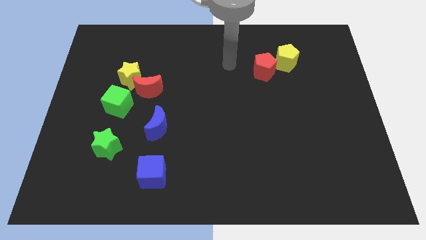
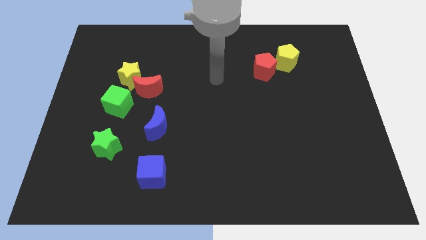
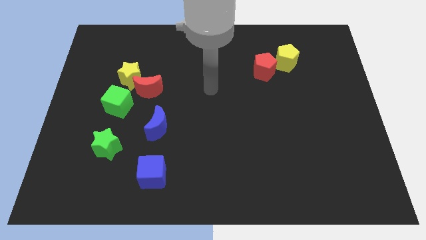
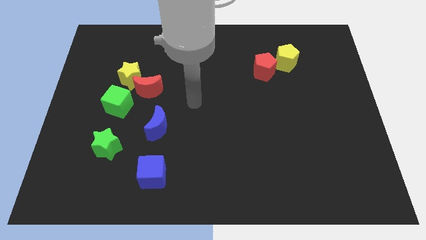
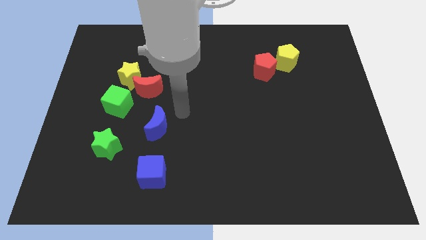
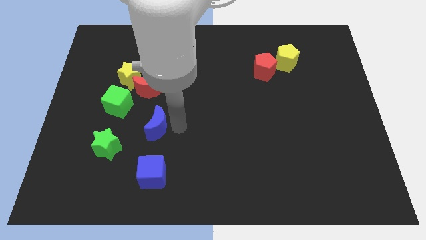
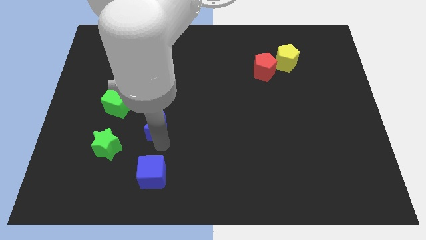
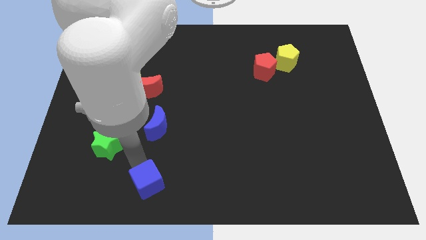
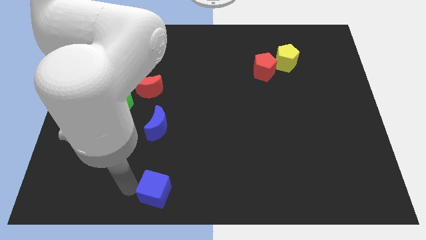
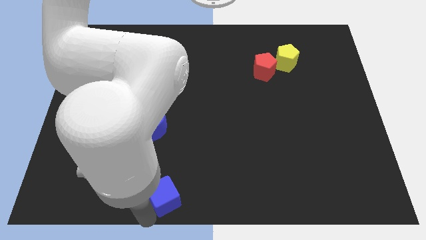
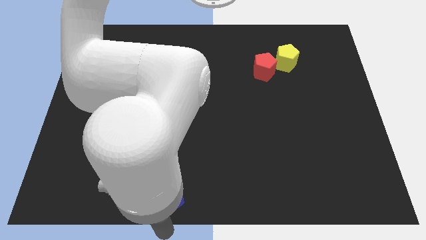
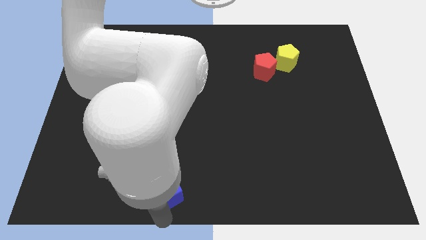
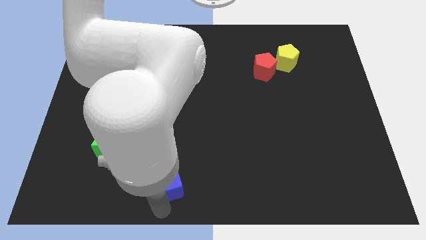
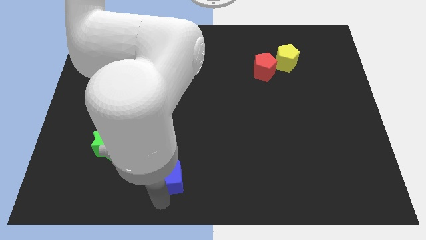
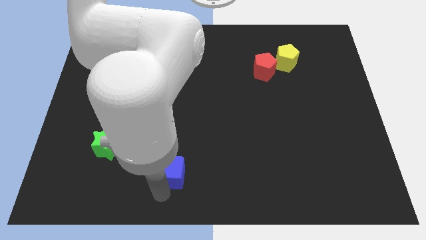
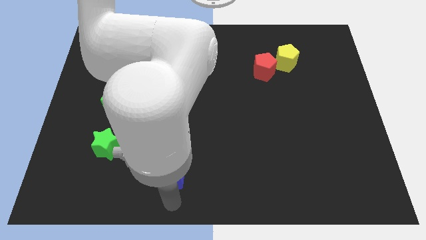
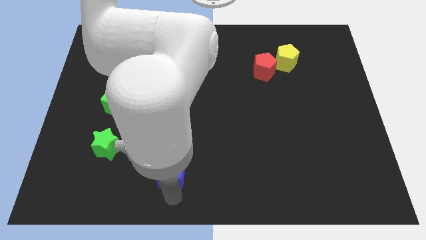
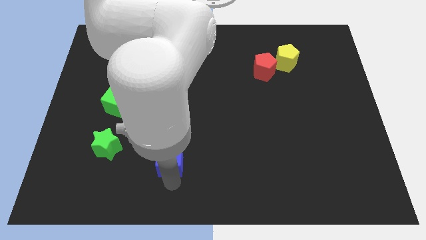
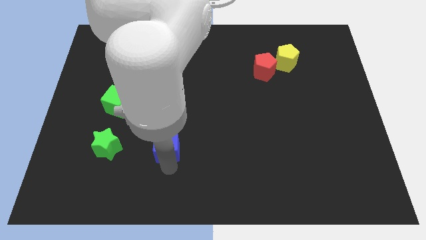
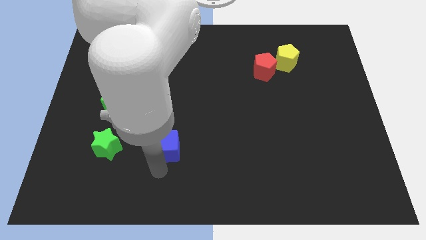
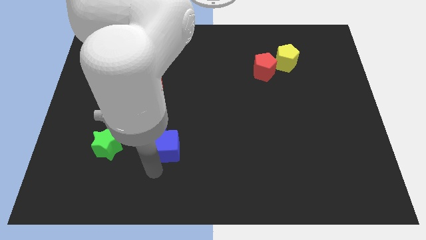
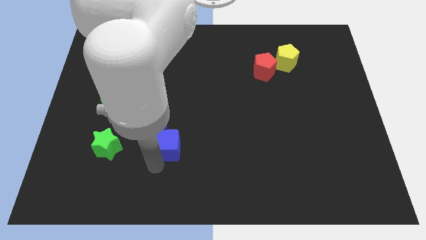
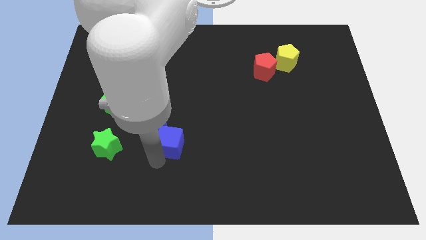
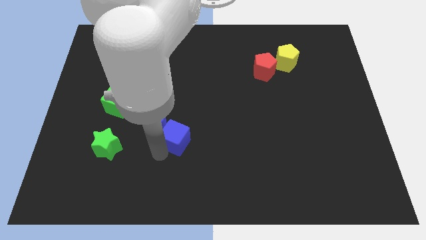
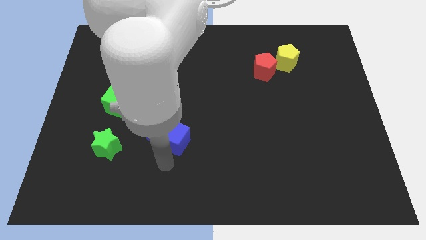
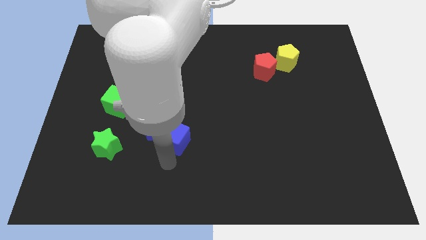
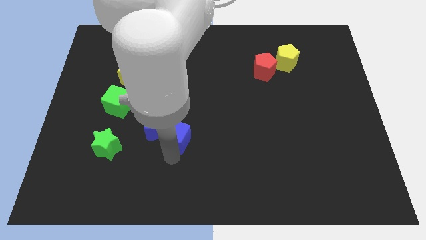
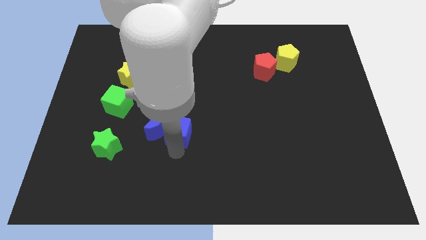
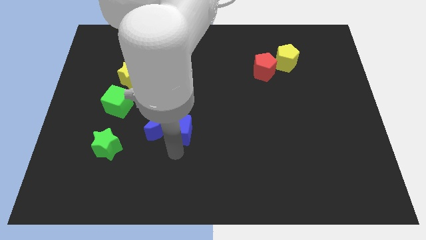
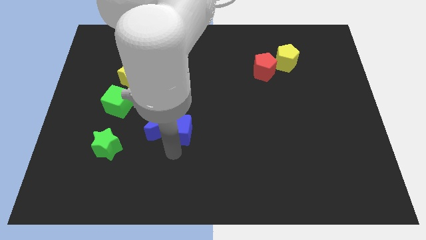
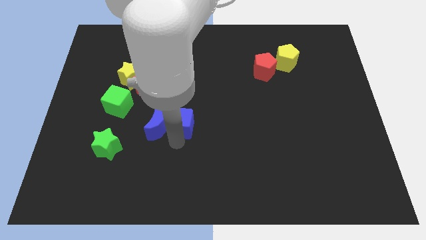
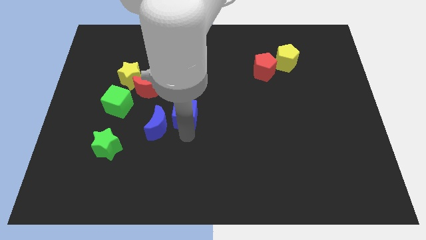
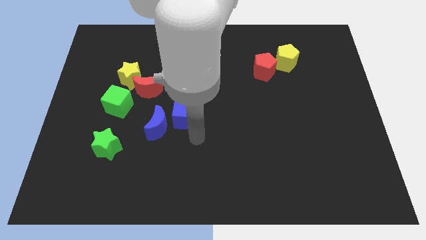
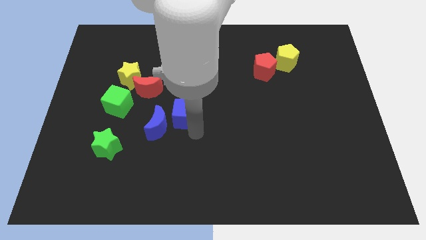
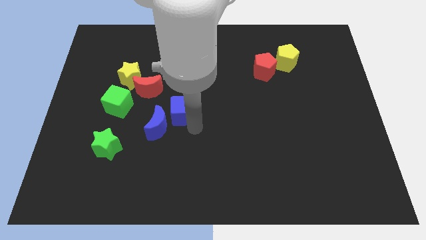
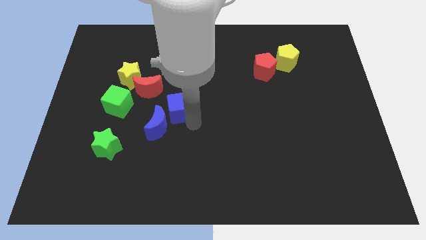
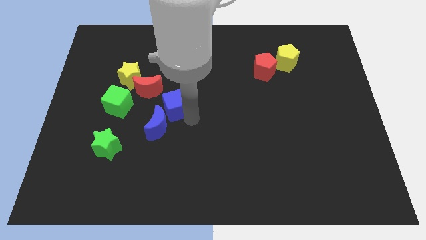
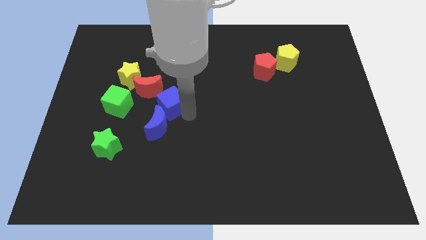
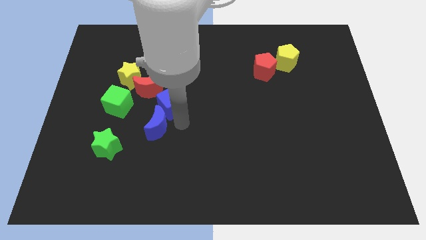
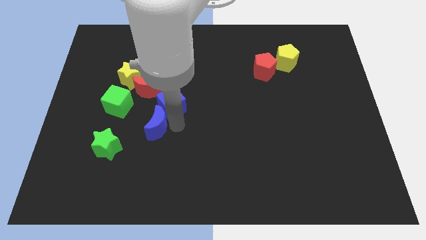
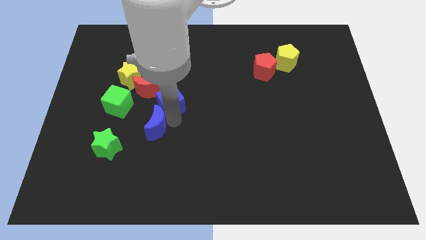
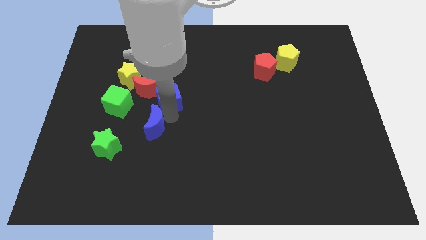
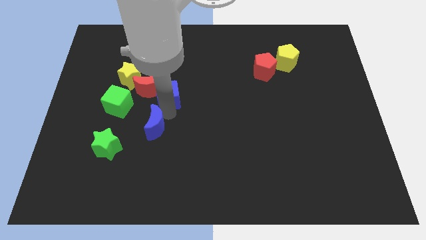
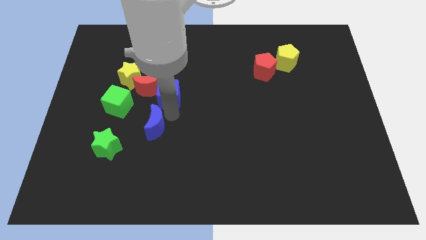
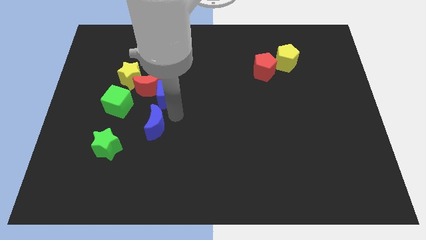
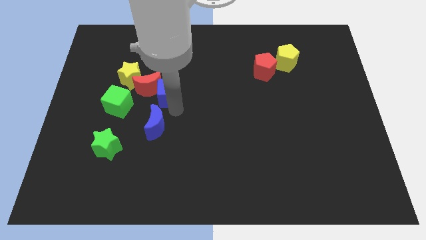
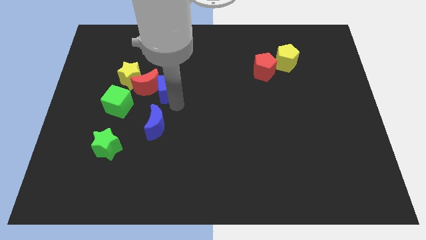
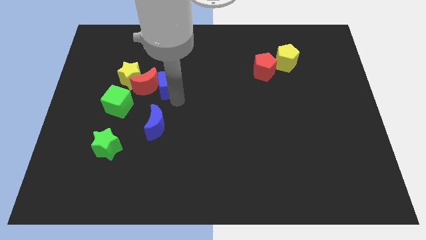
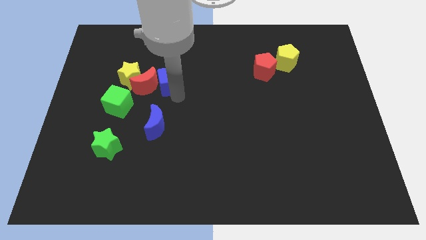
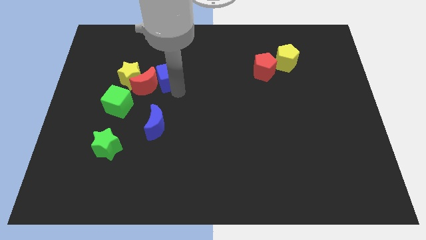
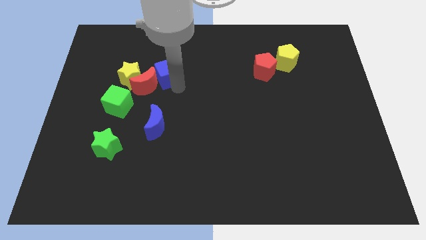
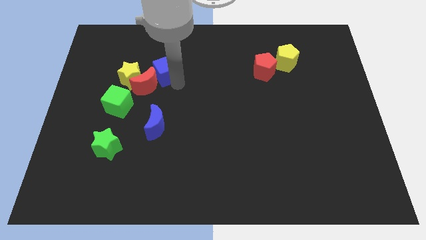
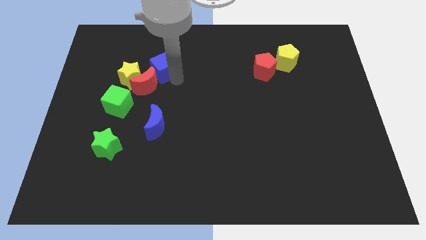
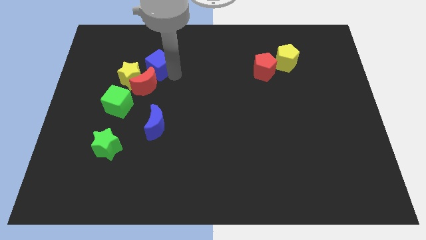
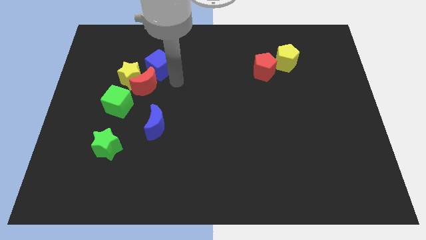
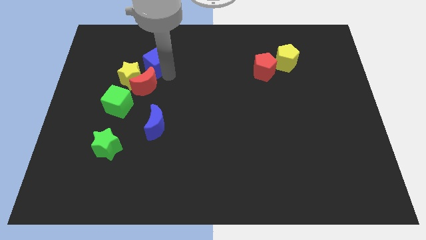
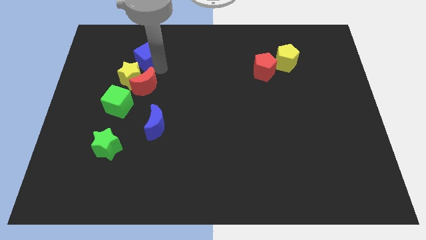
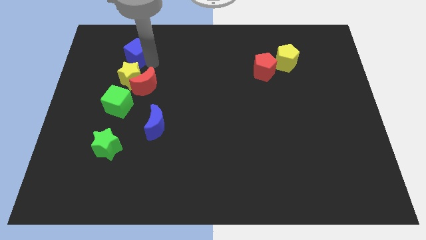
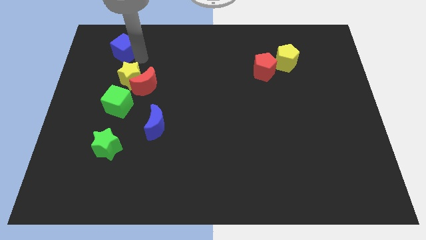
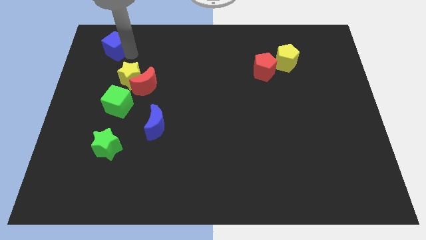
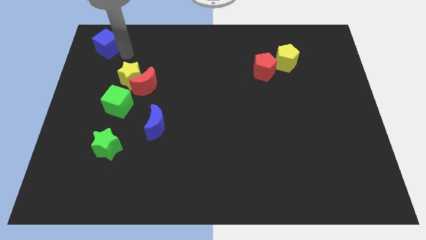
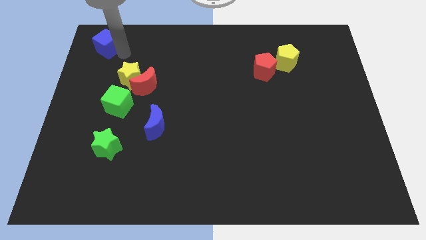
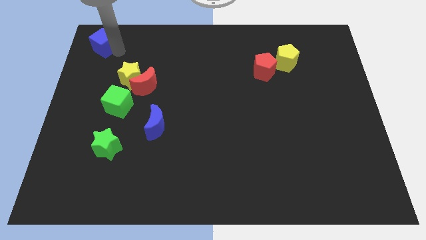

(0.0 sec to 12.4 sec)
slide the blue cube to the top left corner

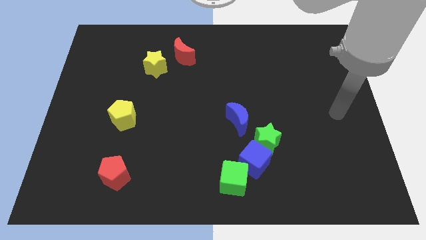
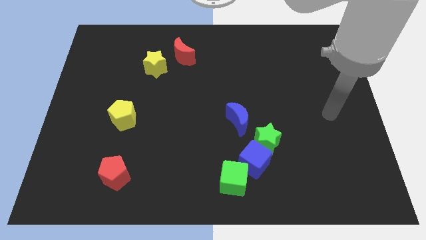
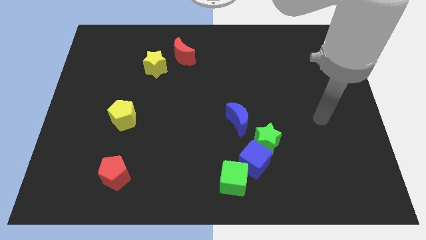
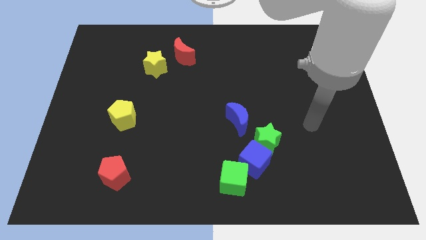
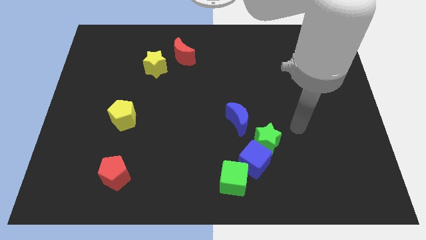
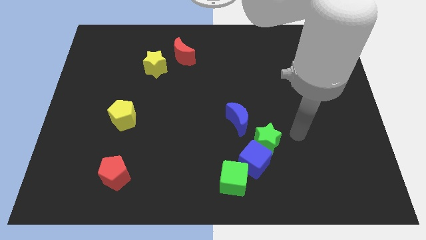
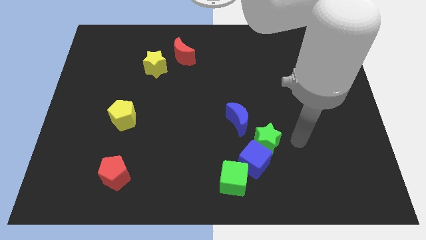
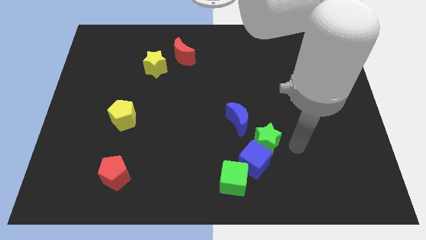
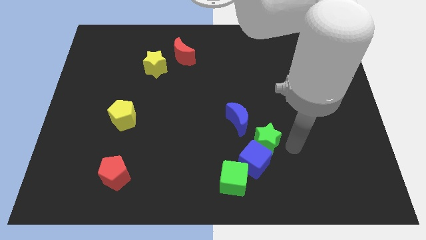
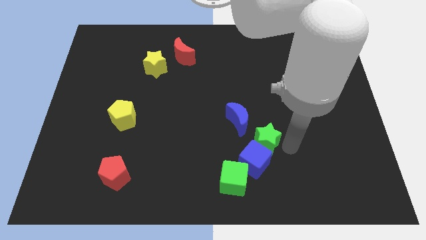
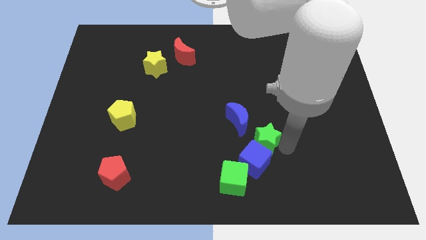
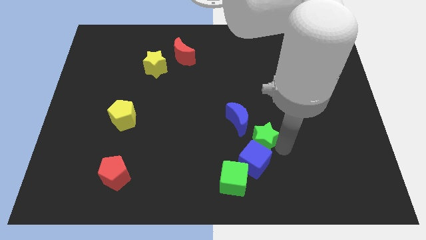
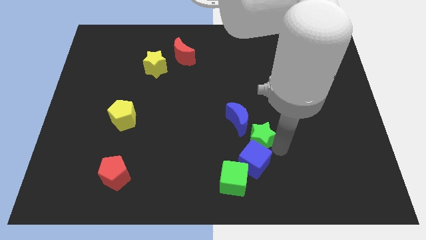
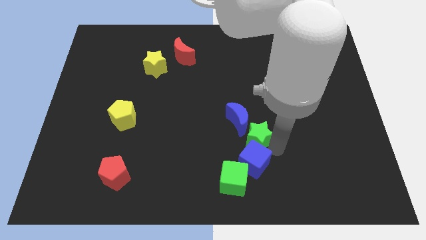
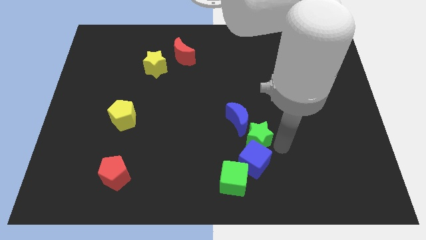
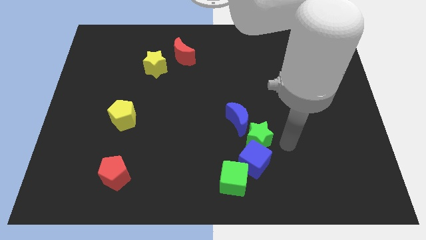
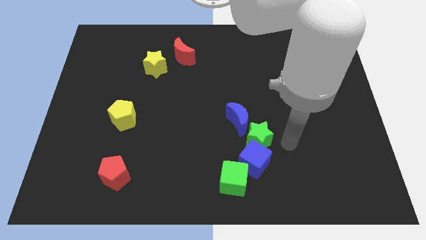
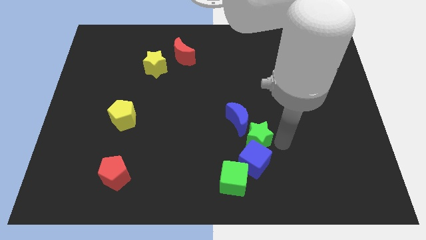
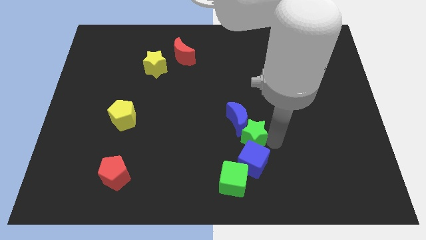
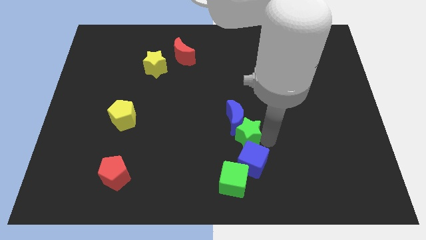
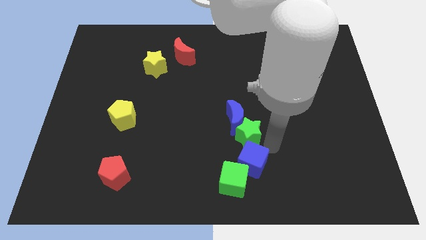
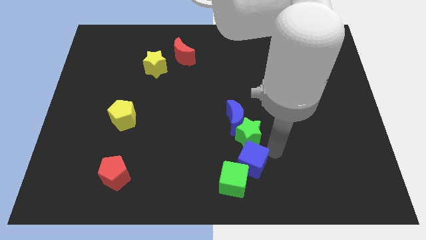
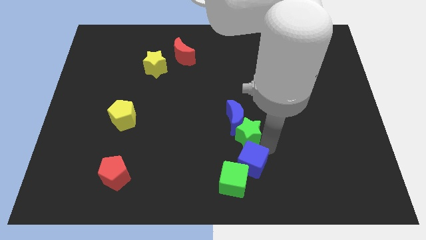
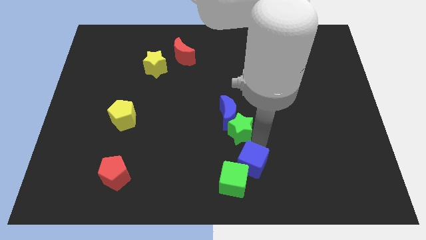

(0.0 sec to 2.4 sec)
move the green star to the center of the board
